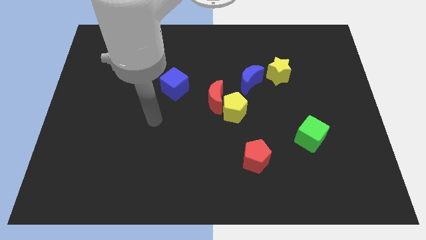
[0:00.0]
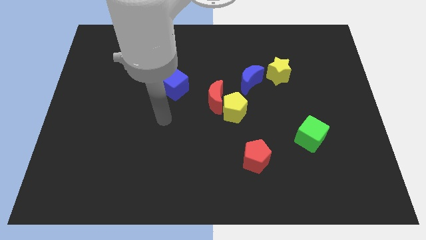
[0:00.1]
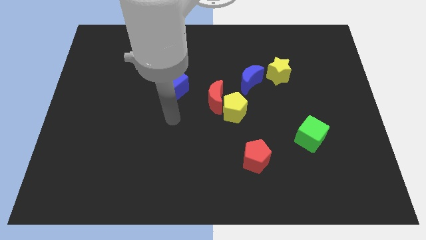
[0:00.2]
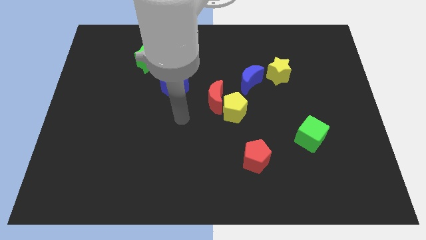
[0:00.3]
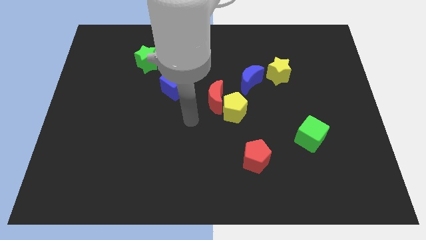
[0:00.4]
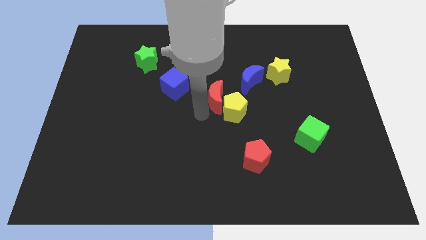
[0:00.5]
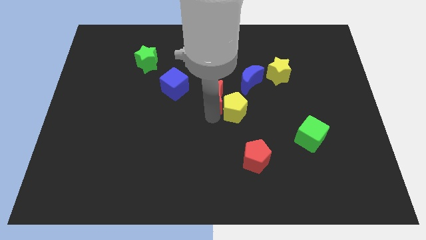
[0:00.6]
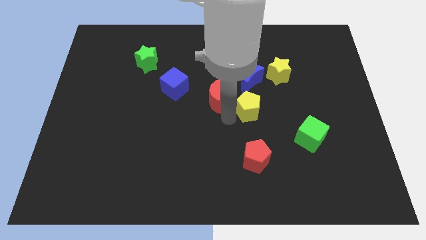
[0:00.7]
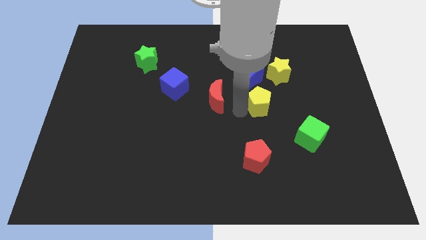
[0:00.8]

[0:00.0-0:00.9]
separate the red moon from the yellow pentagon

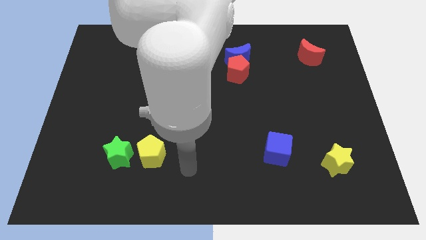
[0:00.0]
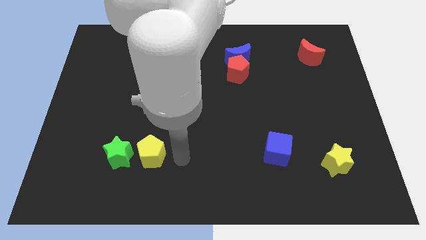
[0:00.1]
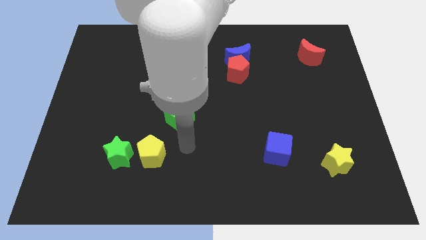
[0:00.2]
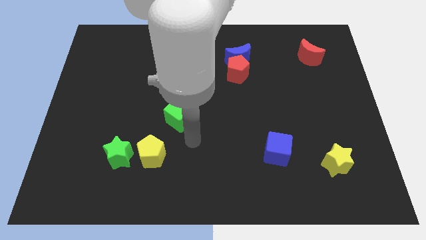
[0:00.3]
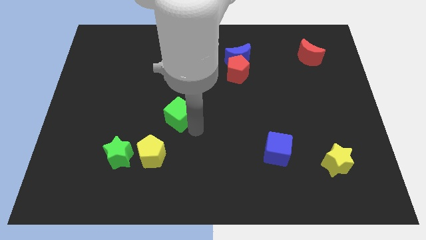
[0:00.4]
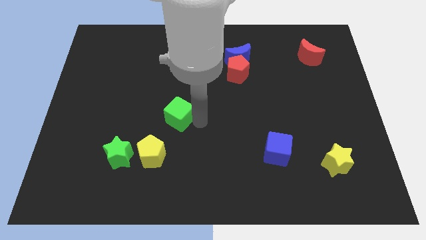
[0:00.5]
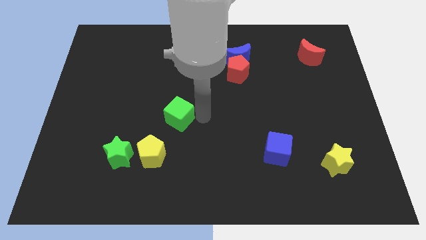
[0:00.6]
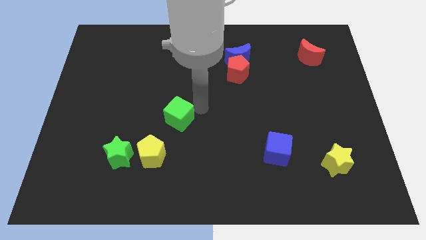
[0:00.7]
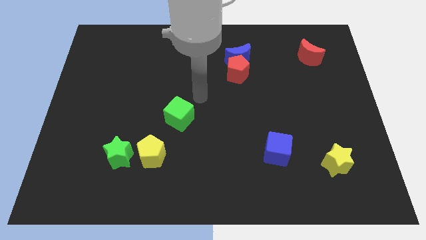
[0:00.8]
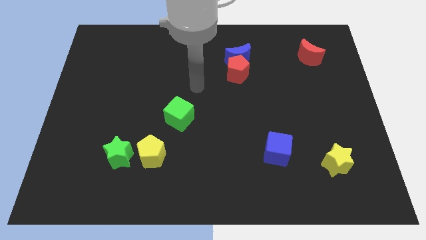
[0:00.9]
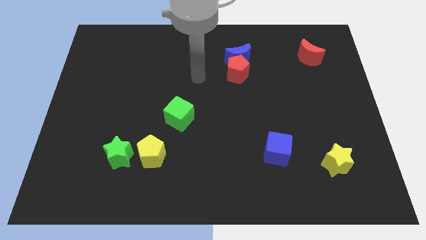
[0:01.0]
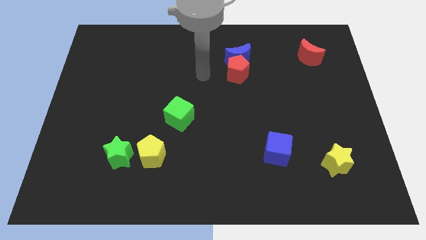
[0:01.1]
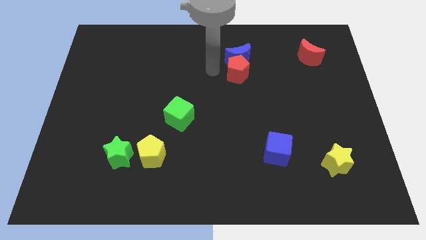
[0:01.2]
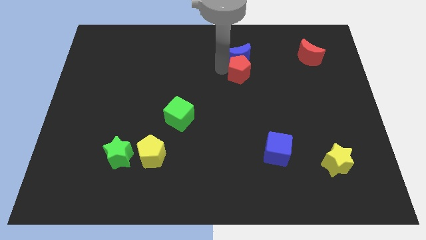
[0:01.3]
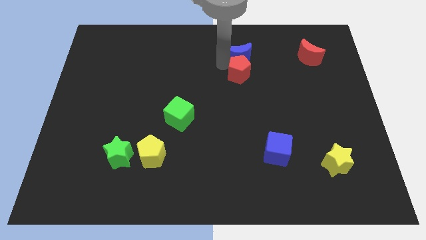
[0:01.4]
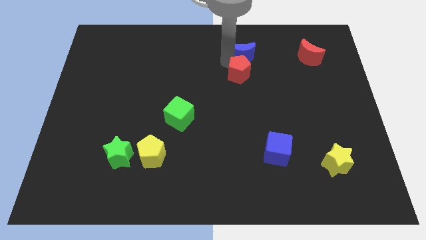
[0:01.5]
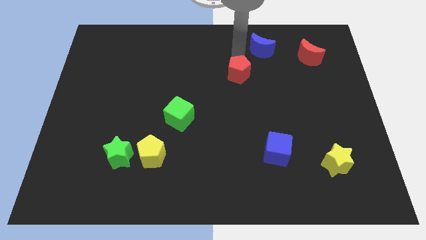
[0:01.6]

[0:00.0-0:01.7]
pull the red pentagon apart from the blue moon

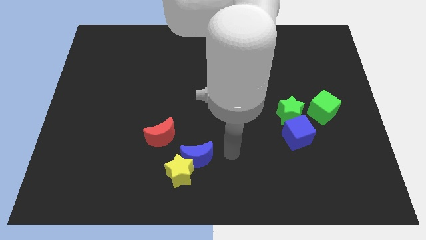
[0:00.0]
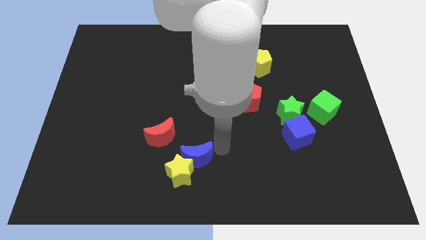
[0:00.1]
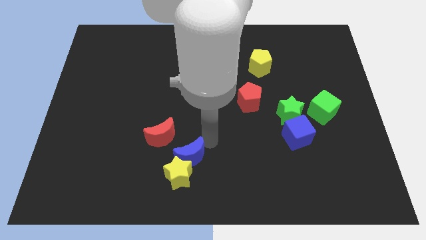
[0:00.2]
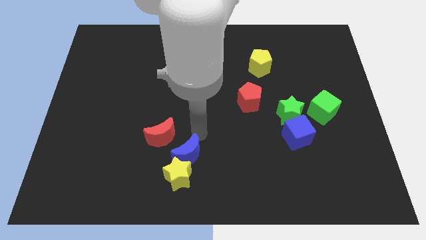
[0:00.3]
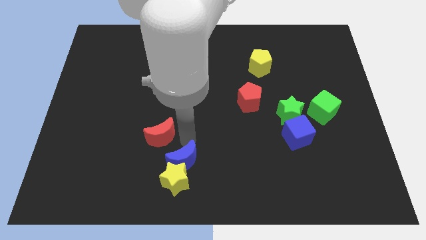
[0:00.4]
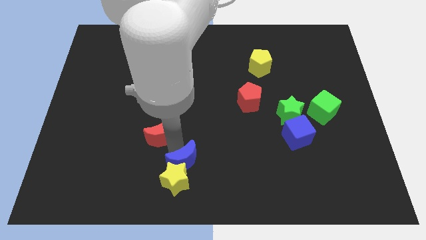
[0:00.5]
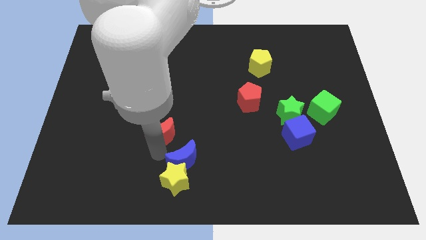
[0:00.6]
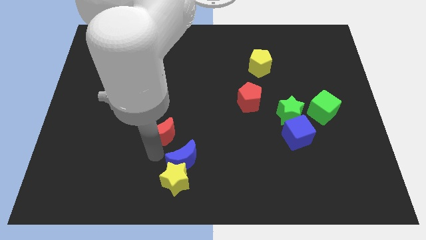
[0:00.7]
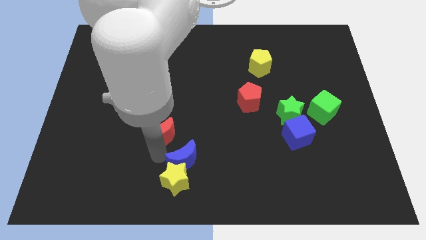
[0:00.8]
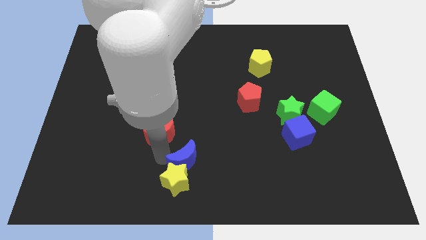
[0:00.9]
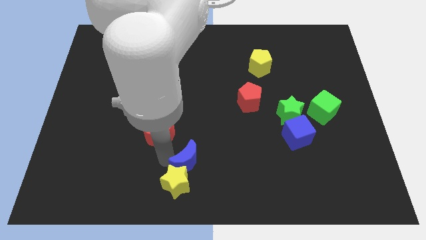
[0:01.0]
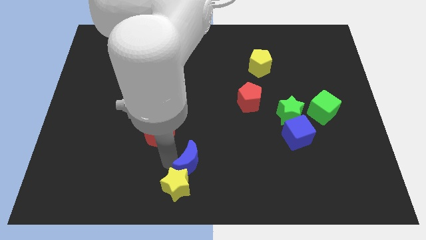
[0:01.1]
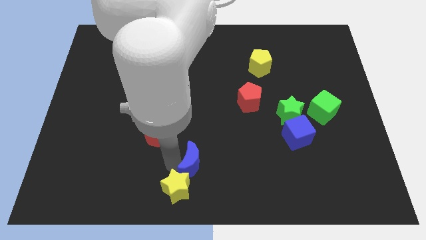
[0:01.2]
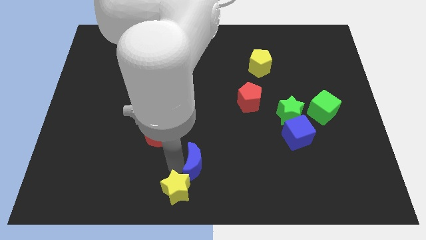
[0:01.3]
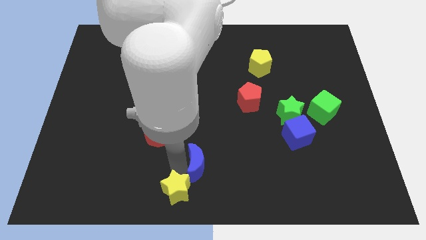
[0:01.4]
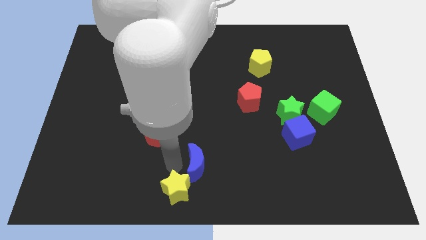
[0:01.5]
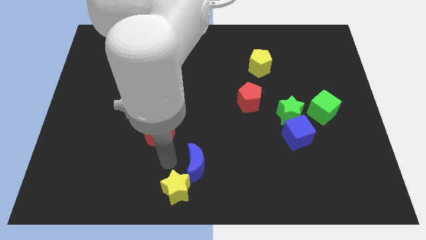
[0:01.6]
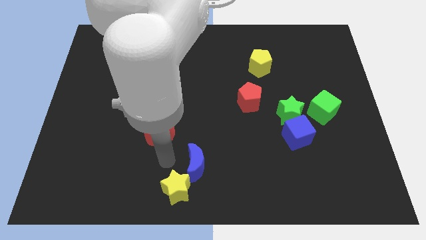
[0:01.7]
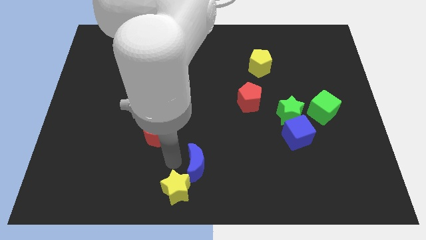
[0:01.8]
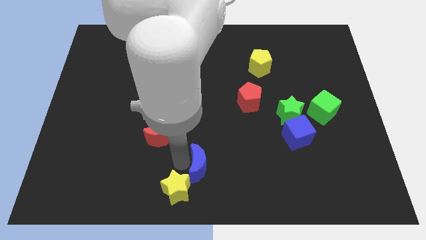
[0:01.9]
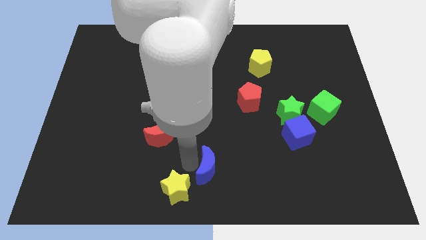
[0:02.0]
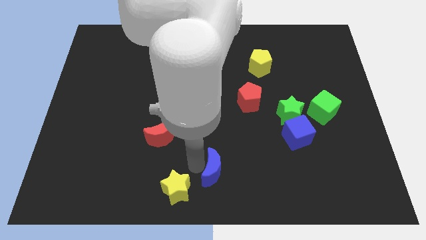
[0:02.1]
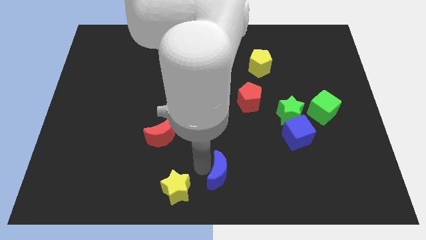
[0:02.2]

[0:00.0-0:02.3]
move the blue moon away from the yellow star and red moon

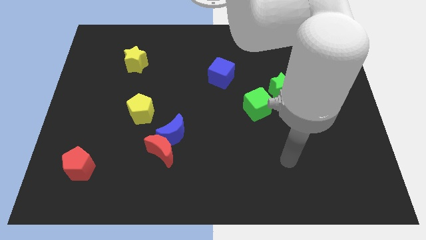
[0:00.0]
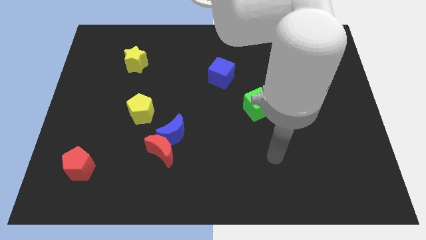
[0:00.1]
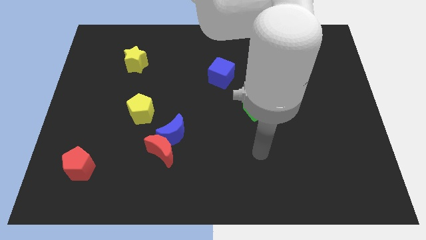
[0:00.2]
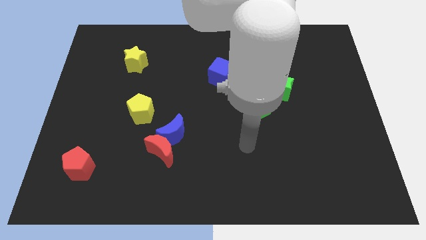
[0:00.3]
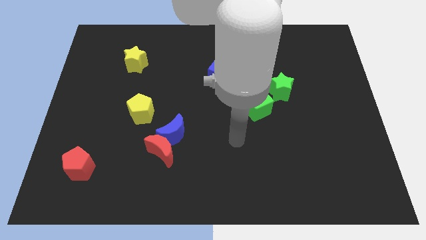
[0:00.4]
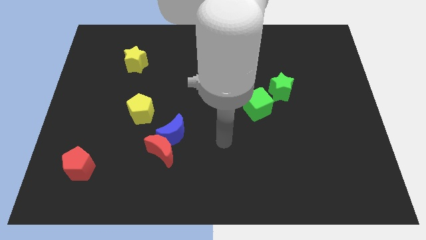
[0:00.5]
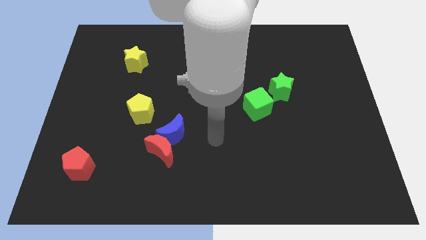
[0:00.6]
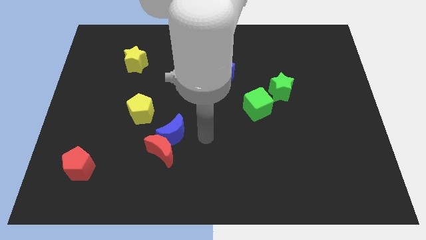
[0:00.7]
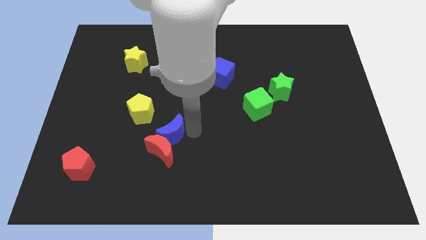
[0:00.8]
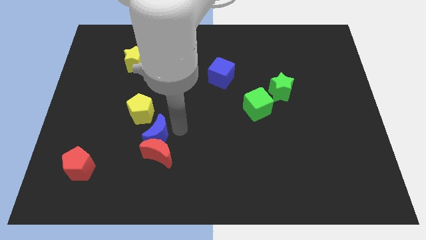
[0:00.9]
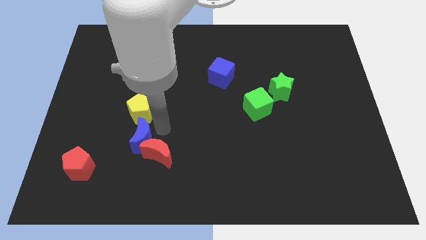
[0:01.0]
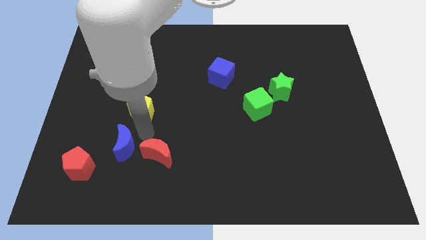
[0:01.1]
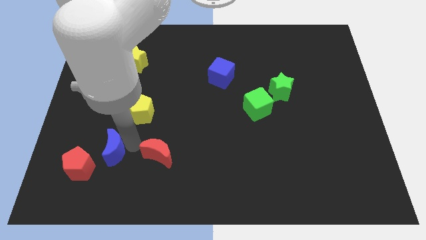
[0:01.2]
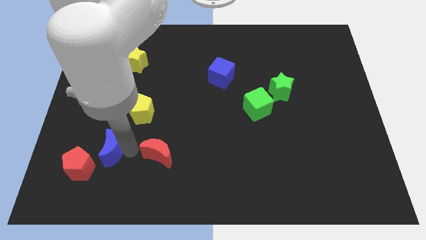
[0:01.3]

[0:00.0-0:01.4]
separate the red moon from the blue moon

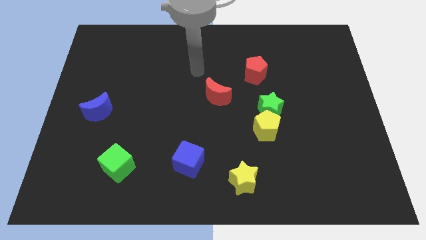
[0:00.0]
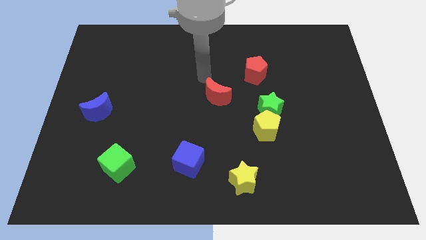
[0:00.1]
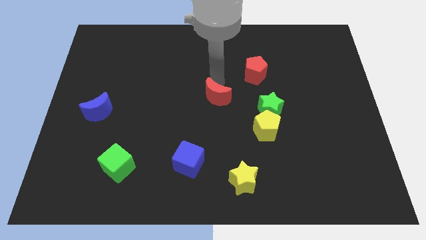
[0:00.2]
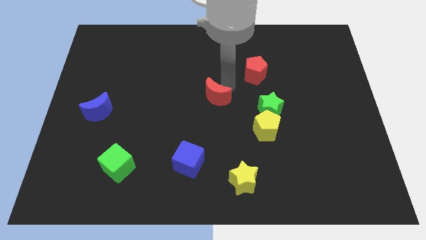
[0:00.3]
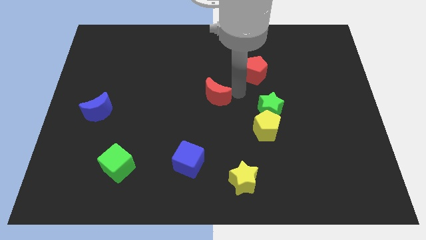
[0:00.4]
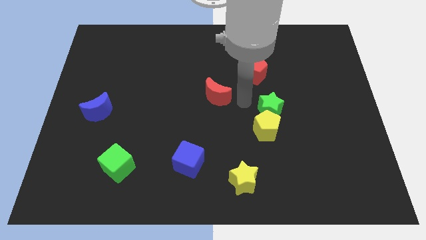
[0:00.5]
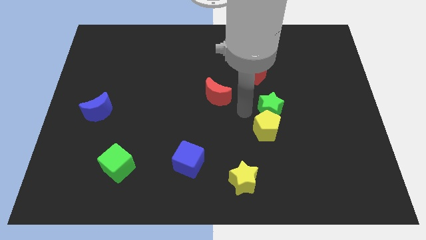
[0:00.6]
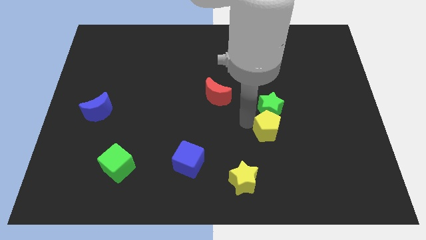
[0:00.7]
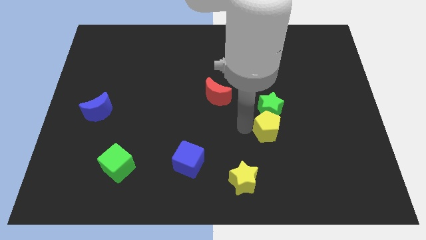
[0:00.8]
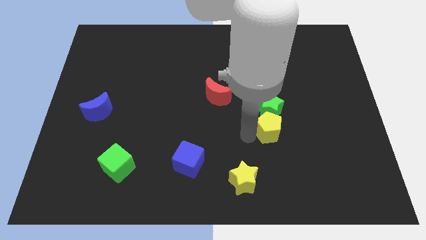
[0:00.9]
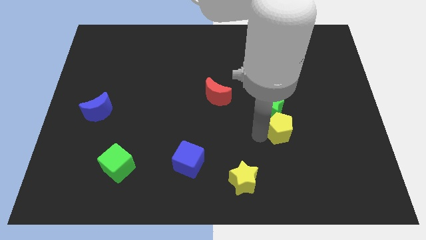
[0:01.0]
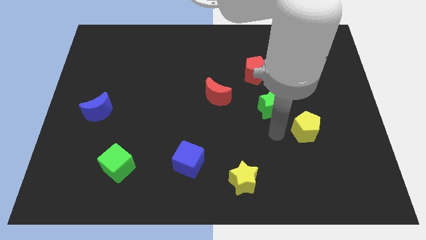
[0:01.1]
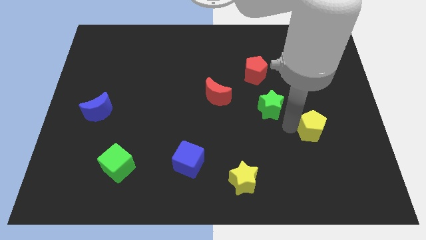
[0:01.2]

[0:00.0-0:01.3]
pull the green star apart from the yellow pentagon

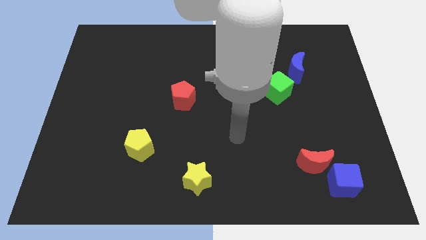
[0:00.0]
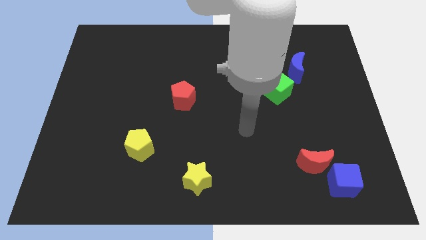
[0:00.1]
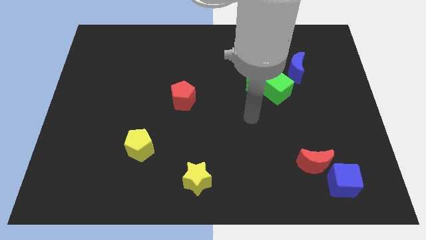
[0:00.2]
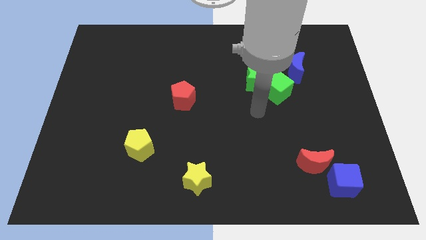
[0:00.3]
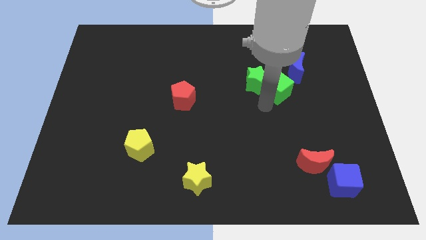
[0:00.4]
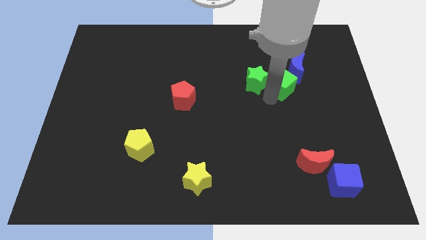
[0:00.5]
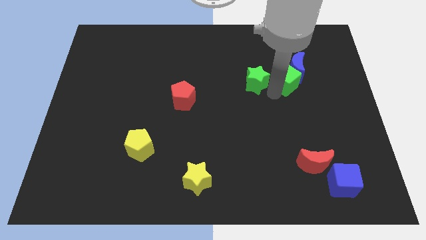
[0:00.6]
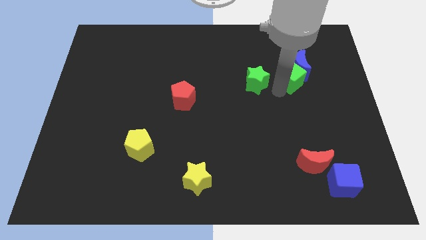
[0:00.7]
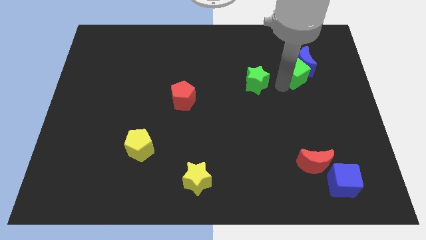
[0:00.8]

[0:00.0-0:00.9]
separate the green star from the green cube

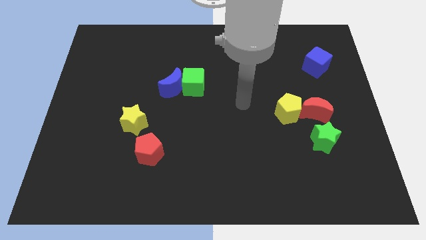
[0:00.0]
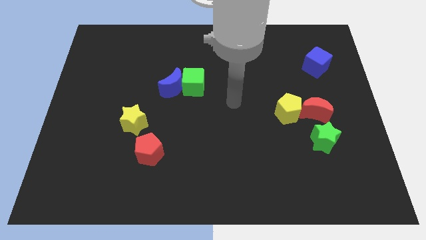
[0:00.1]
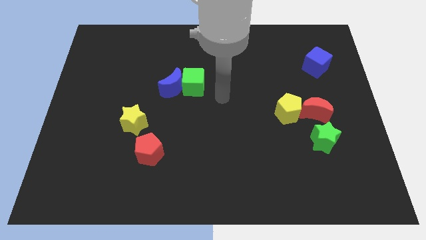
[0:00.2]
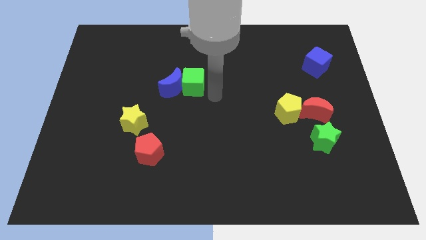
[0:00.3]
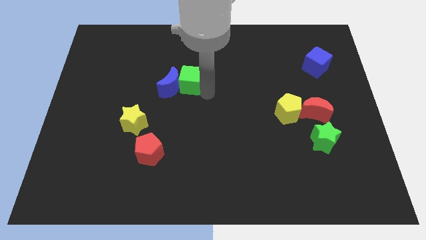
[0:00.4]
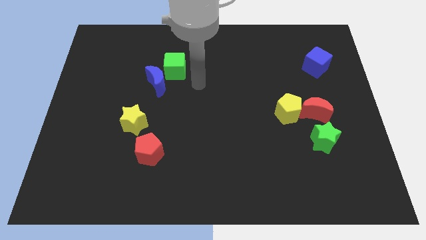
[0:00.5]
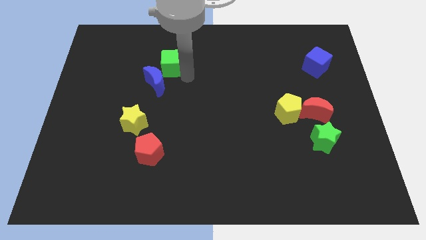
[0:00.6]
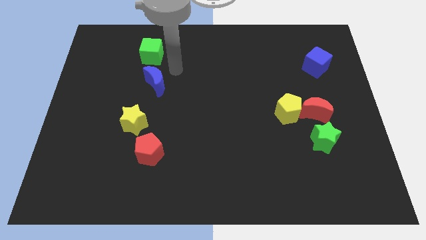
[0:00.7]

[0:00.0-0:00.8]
separate the blue moon from the green cube

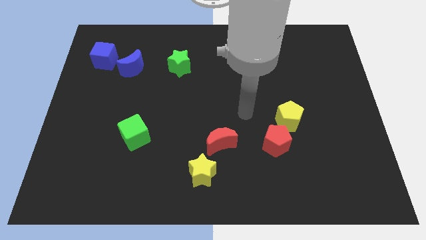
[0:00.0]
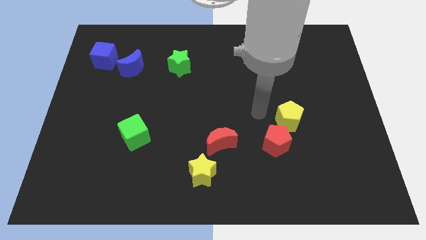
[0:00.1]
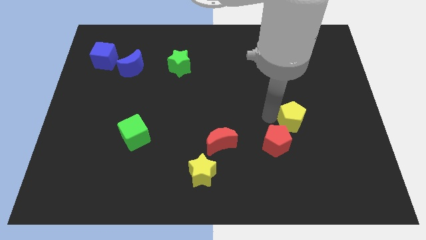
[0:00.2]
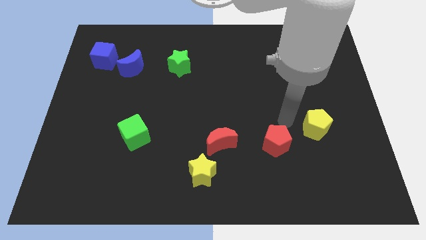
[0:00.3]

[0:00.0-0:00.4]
move the red pentagon away from the yellow pentagon
